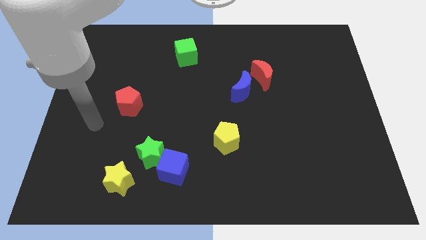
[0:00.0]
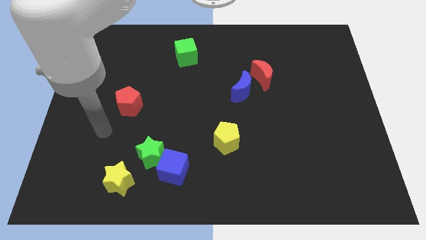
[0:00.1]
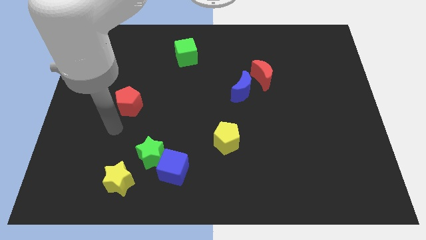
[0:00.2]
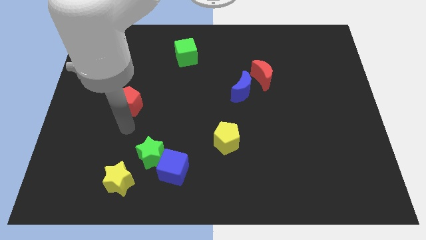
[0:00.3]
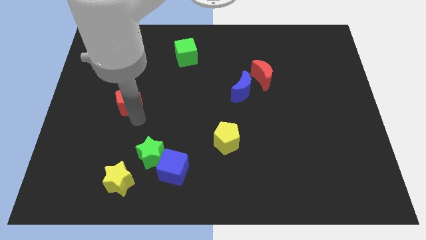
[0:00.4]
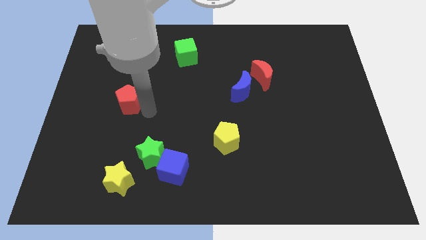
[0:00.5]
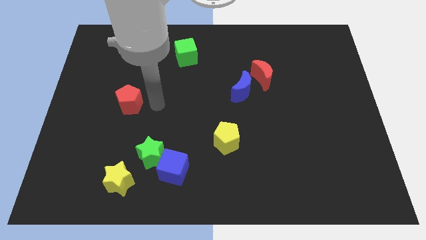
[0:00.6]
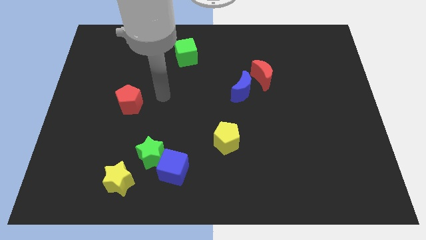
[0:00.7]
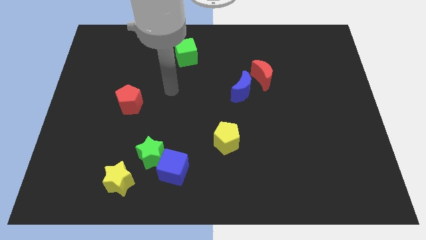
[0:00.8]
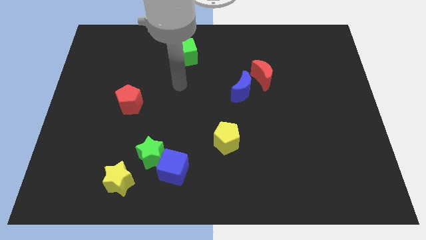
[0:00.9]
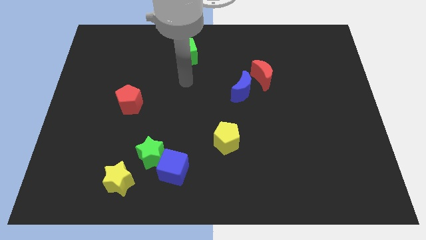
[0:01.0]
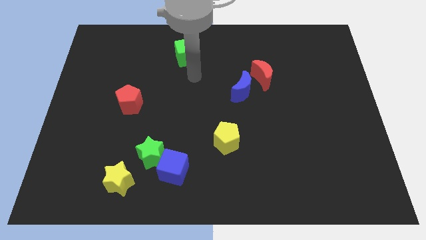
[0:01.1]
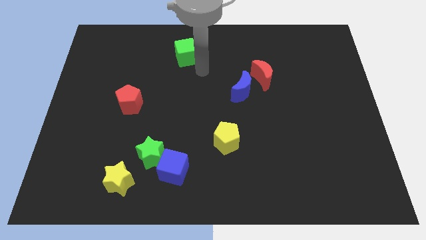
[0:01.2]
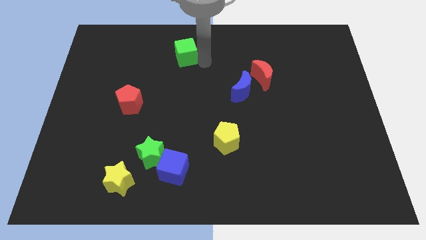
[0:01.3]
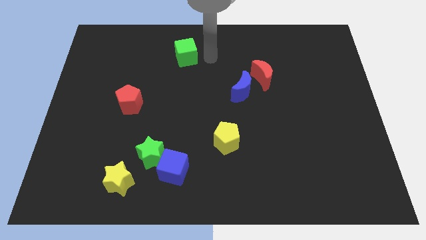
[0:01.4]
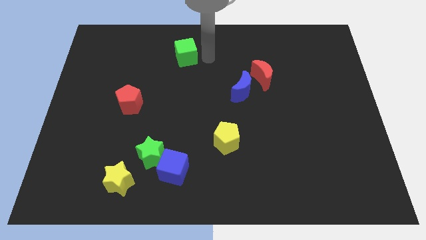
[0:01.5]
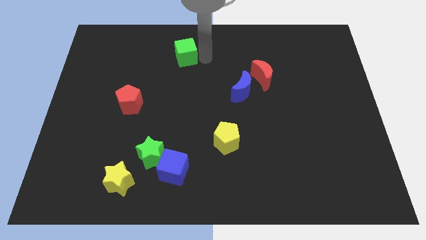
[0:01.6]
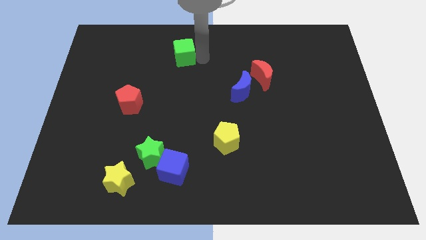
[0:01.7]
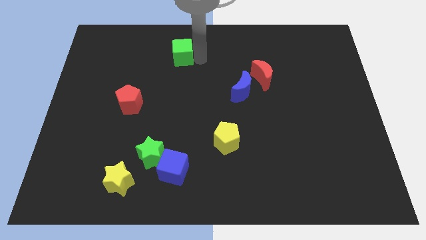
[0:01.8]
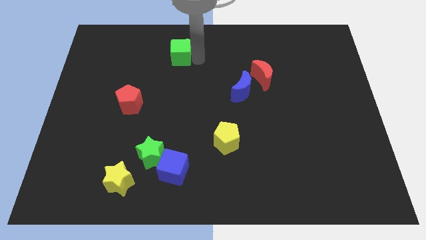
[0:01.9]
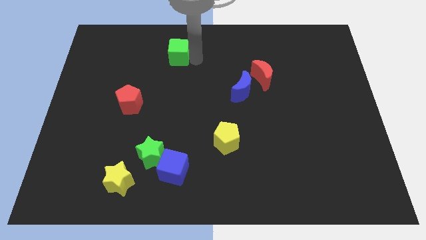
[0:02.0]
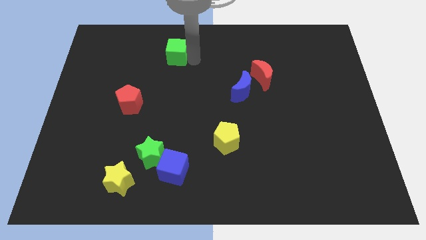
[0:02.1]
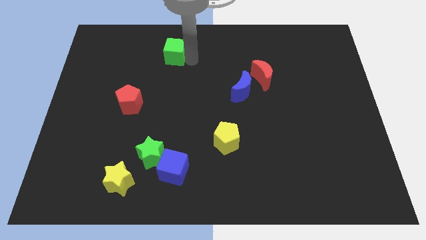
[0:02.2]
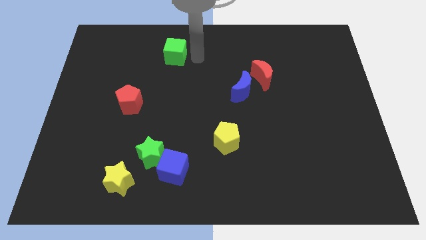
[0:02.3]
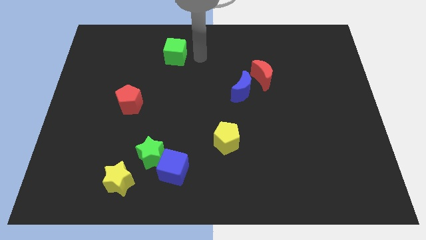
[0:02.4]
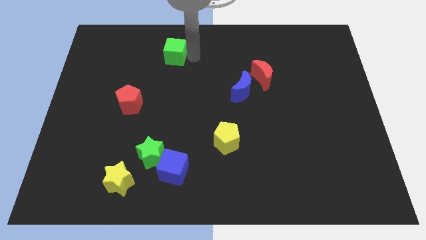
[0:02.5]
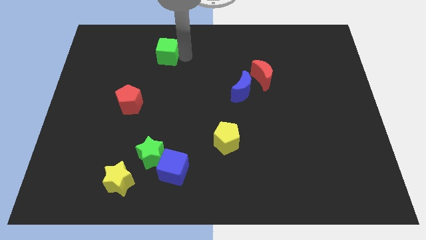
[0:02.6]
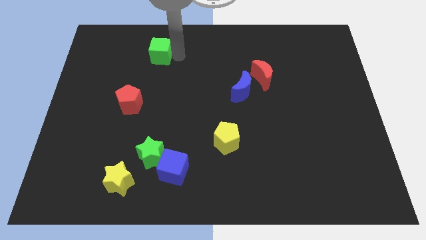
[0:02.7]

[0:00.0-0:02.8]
slide the green cube a bit to the left

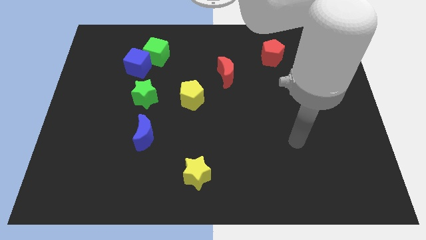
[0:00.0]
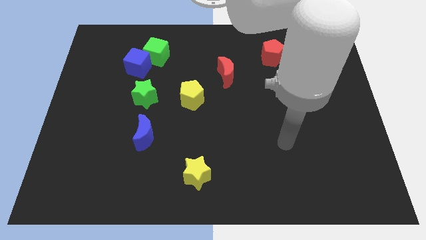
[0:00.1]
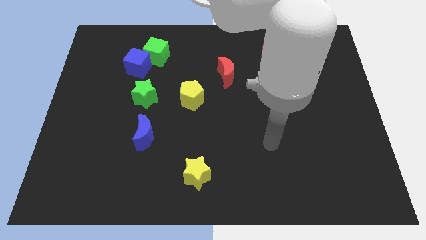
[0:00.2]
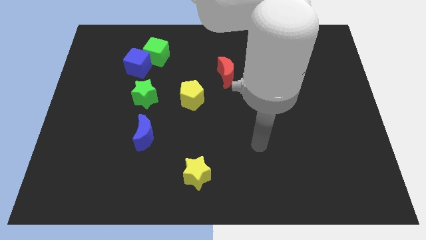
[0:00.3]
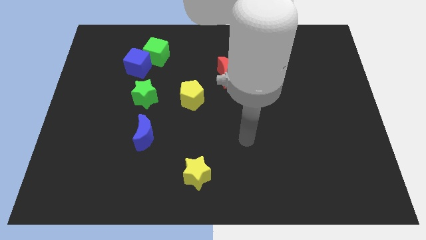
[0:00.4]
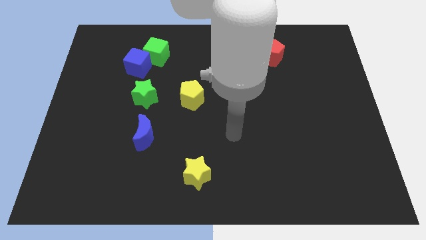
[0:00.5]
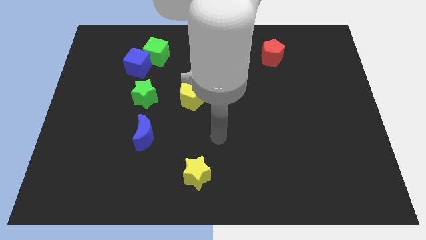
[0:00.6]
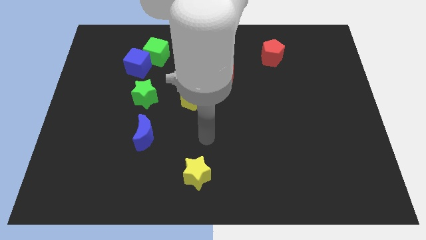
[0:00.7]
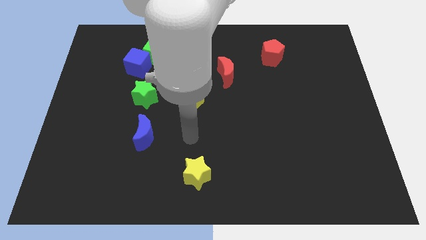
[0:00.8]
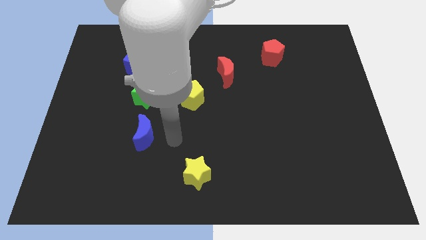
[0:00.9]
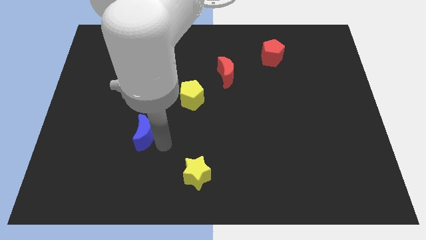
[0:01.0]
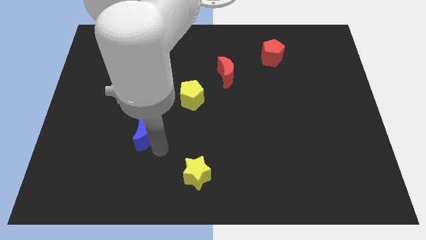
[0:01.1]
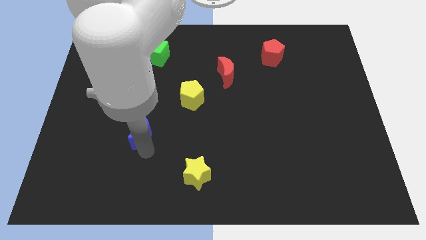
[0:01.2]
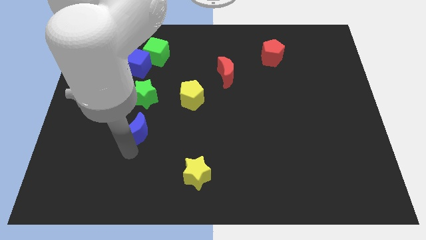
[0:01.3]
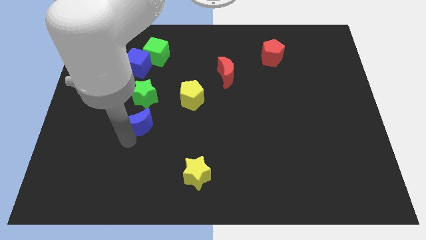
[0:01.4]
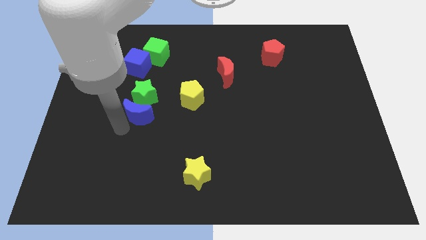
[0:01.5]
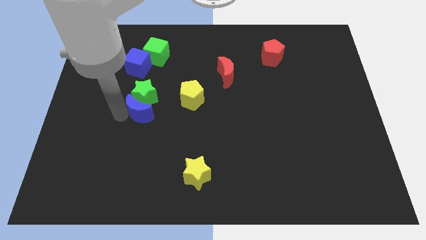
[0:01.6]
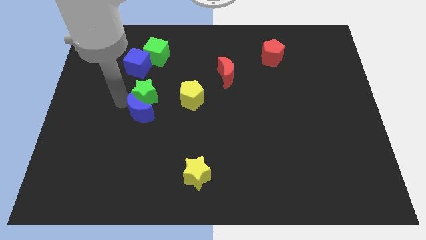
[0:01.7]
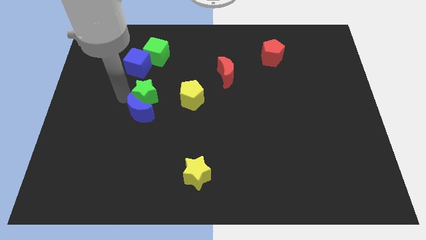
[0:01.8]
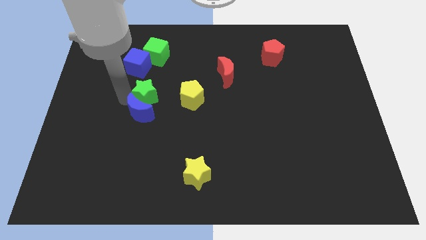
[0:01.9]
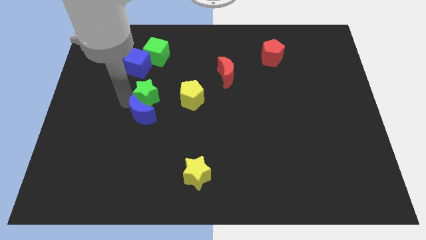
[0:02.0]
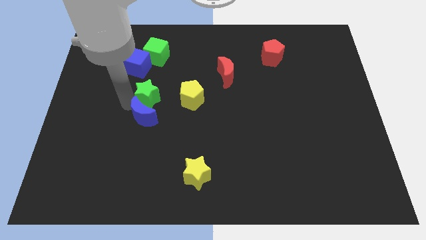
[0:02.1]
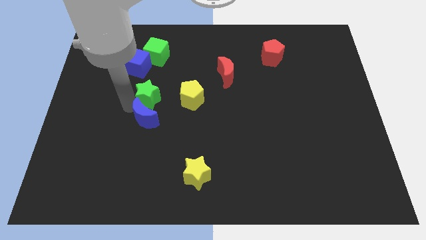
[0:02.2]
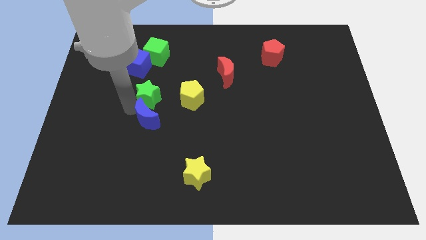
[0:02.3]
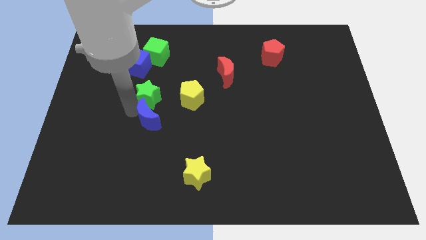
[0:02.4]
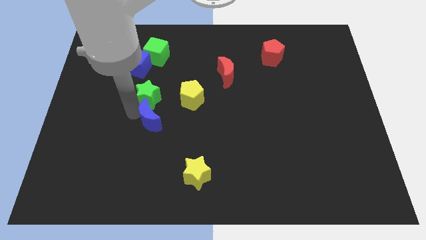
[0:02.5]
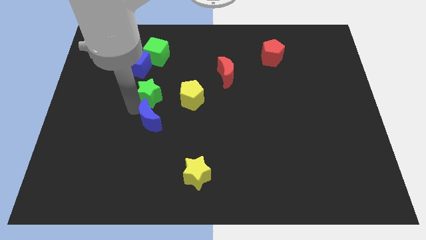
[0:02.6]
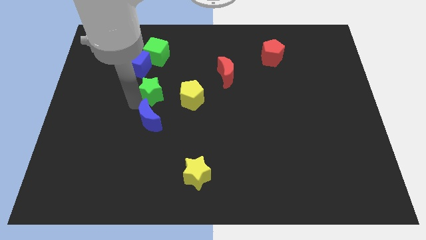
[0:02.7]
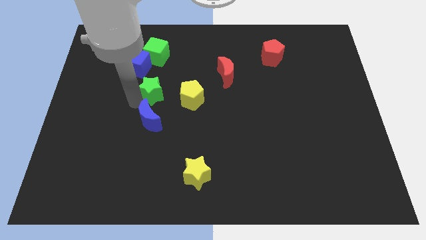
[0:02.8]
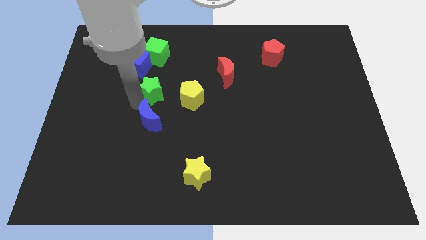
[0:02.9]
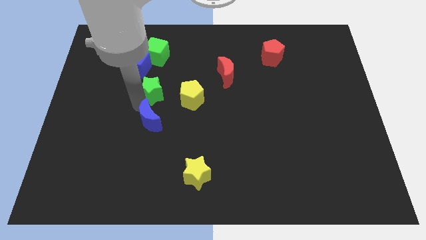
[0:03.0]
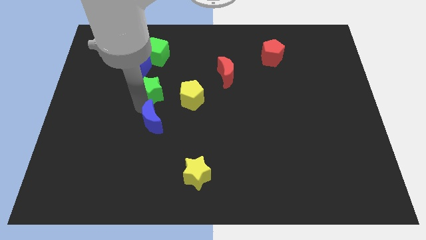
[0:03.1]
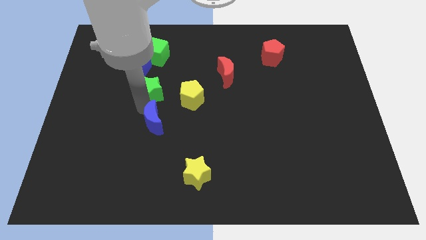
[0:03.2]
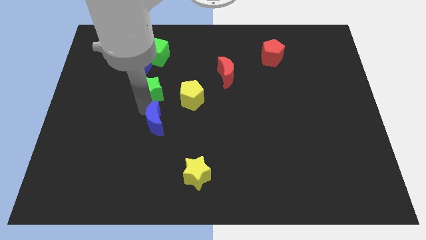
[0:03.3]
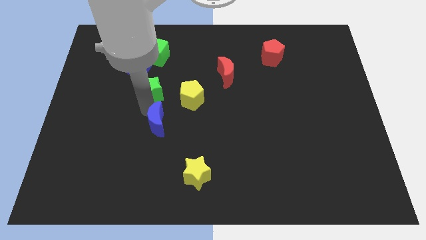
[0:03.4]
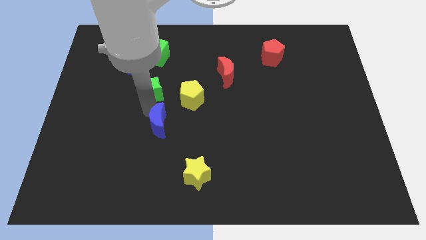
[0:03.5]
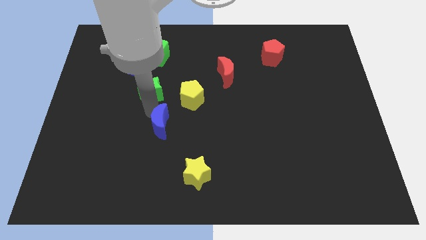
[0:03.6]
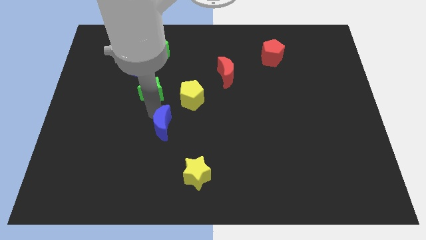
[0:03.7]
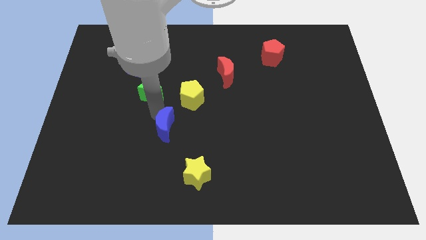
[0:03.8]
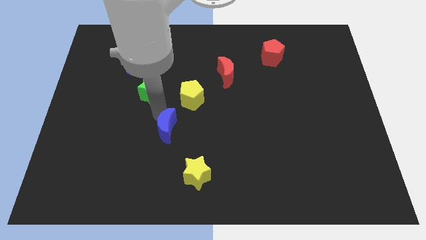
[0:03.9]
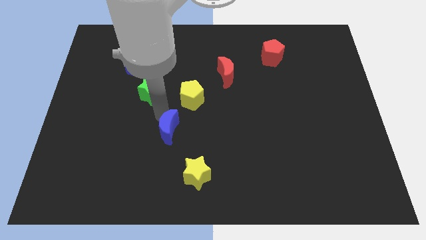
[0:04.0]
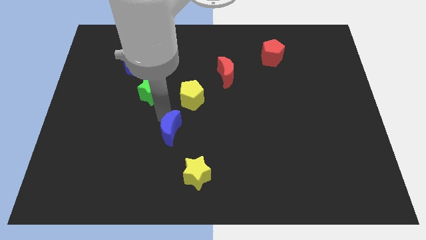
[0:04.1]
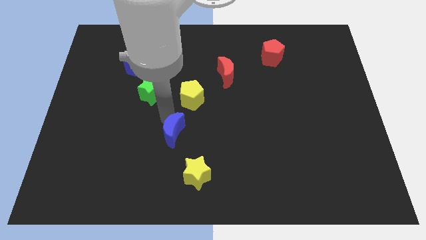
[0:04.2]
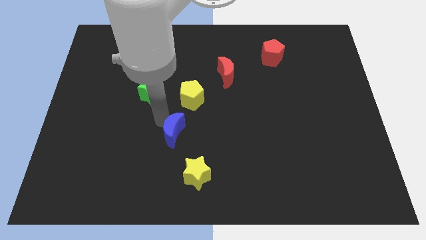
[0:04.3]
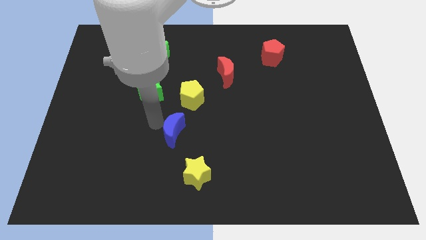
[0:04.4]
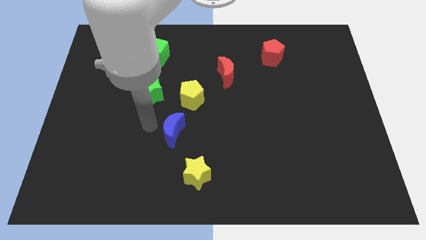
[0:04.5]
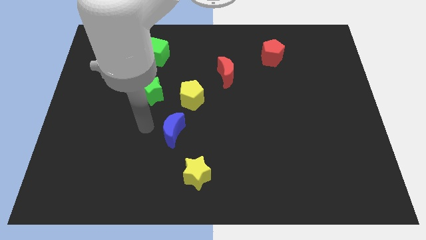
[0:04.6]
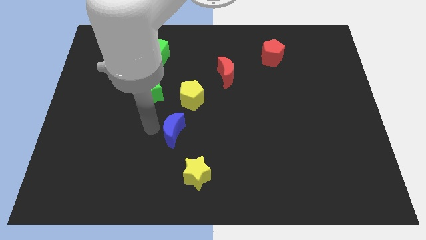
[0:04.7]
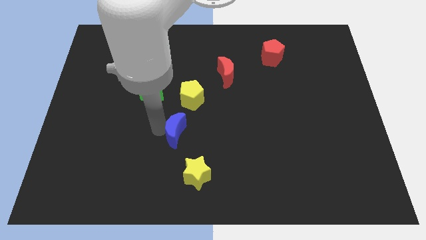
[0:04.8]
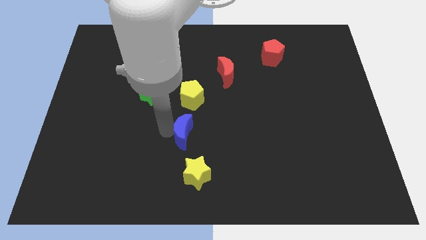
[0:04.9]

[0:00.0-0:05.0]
push the blue moon a little bit right
